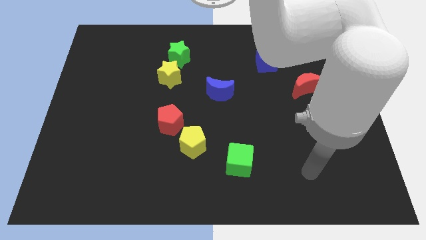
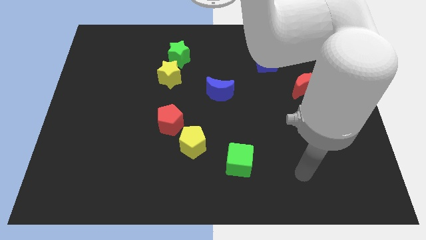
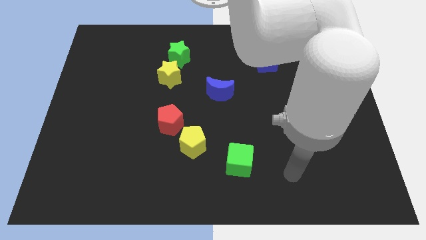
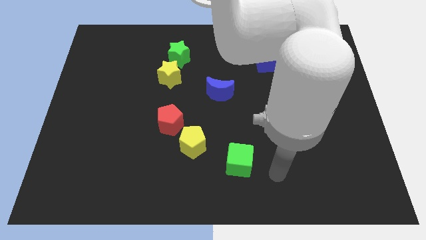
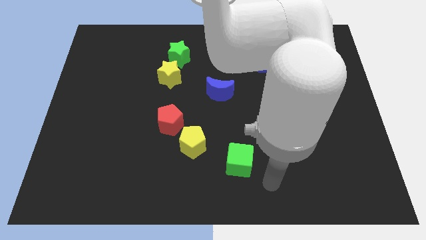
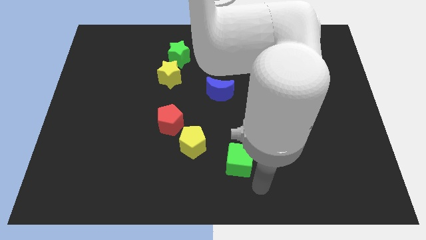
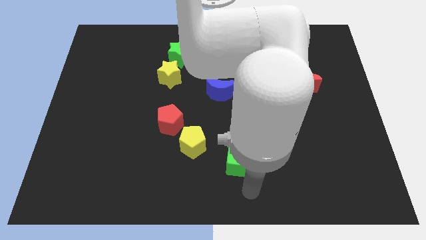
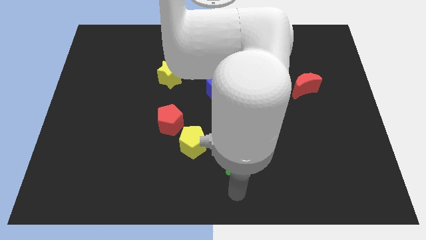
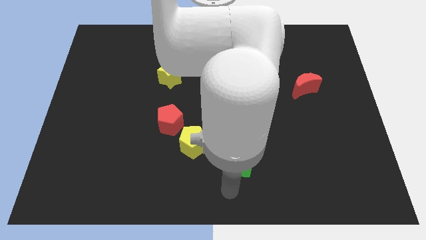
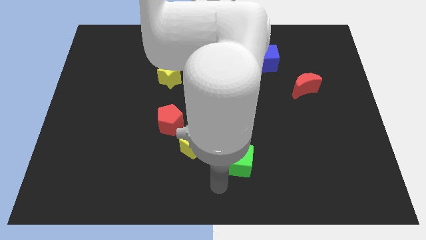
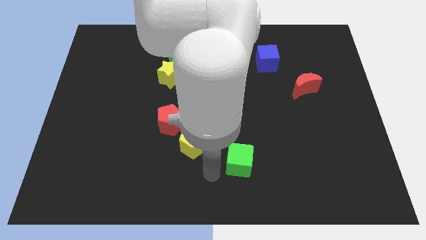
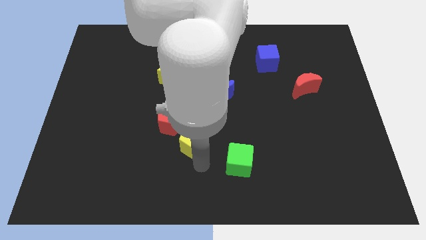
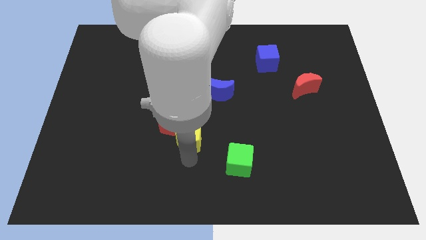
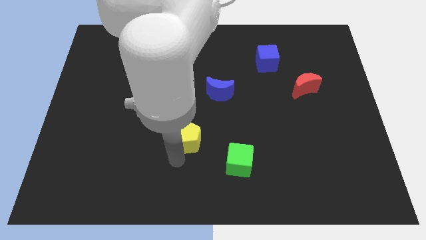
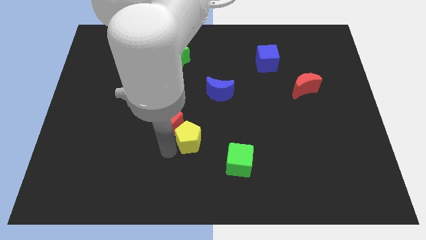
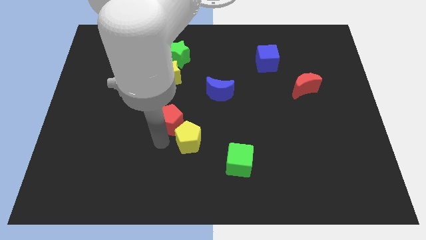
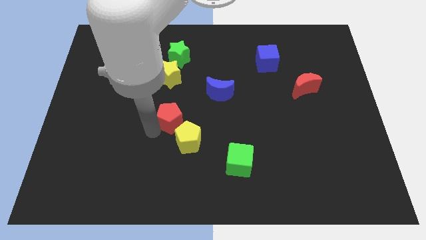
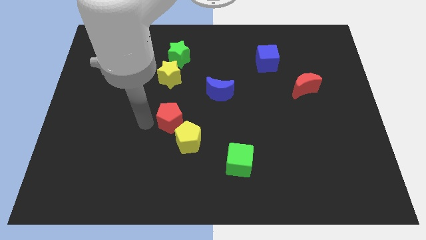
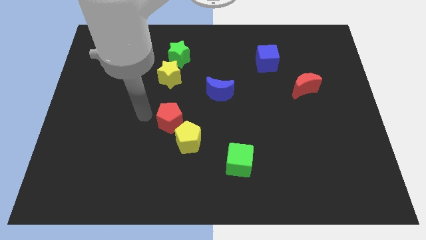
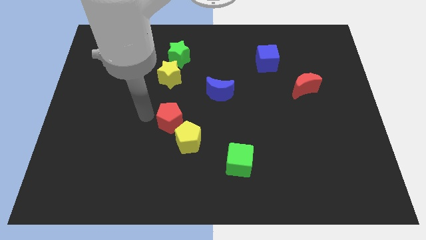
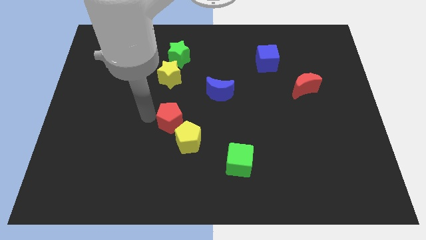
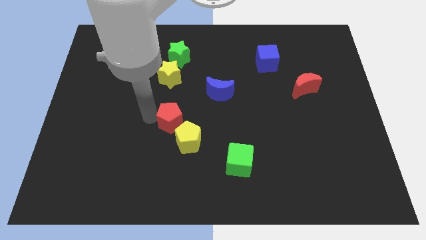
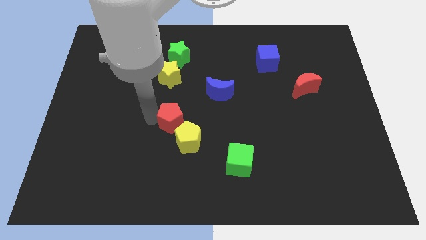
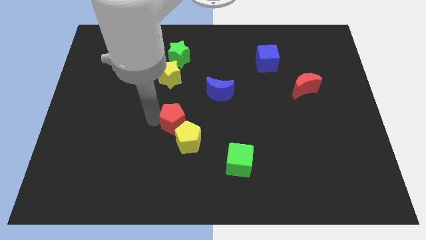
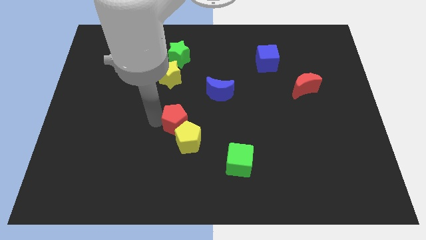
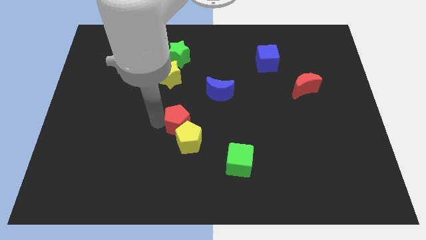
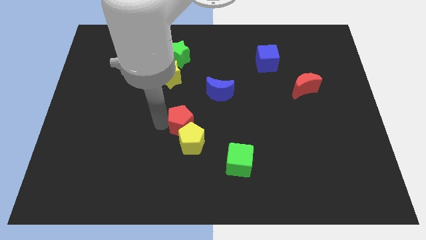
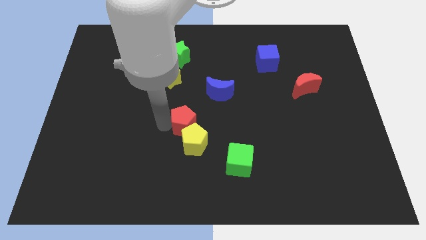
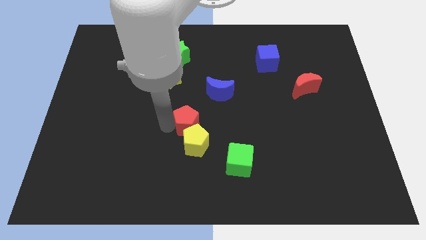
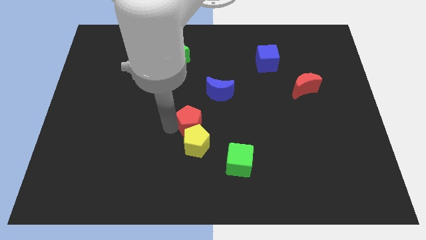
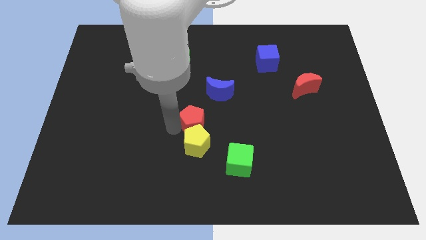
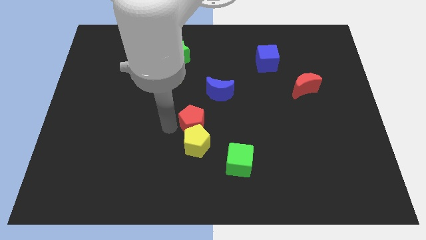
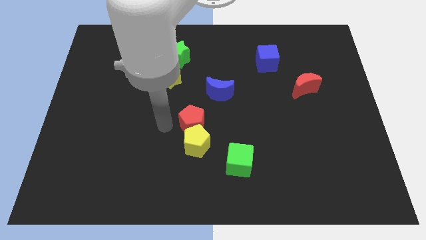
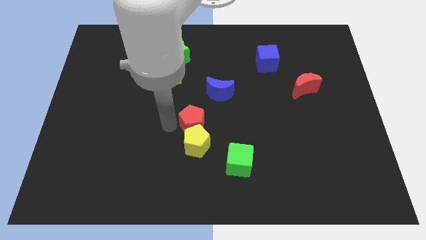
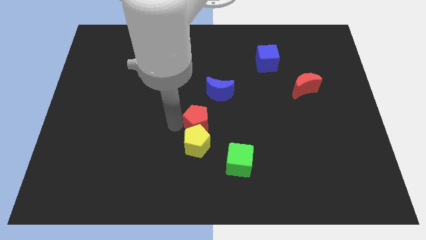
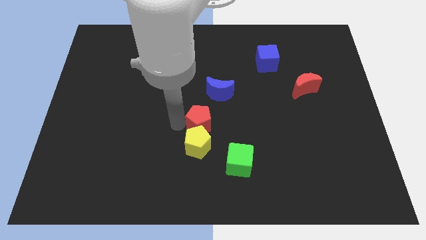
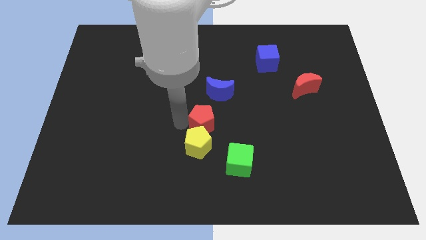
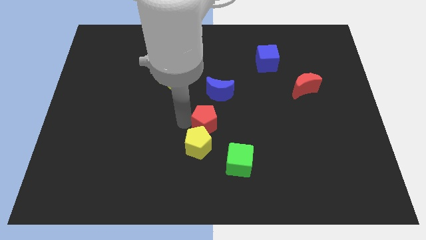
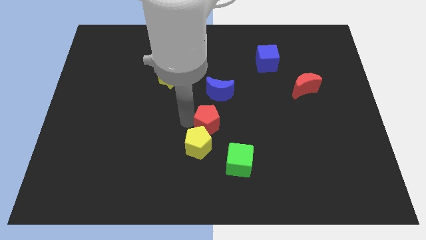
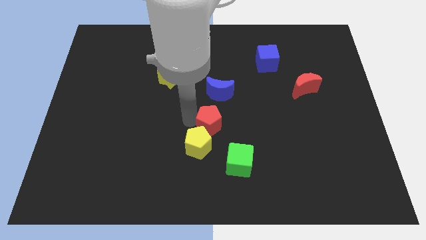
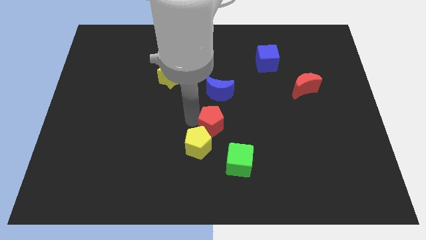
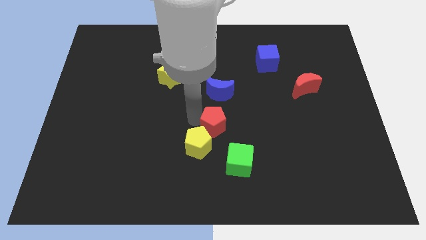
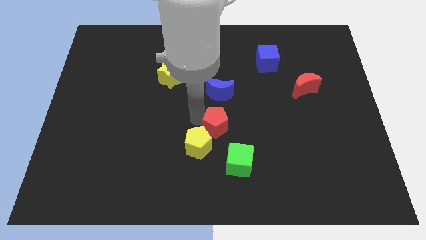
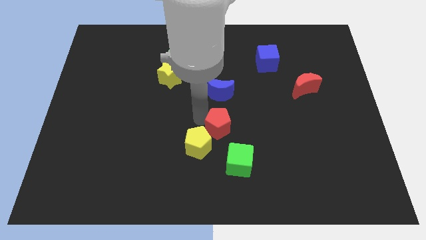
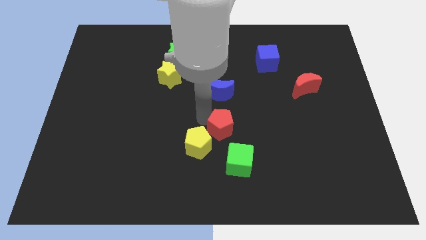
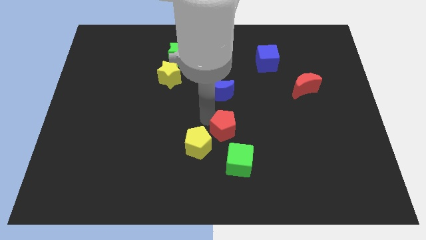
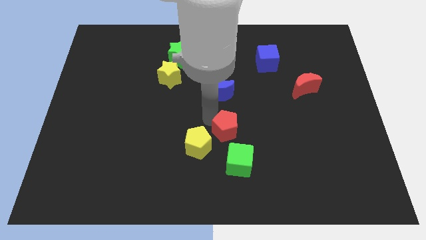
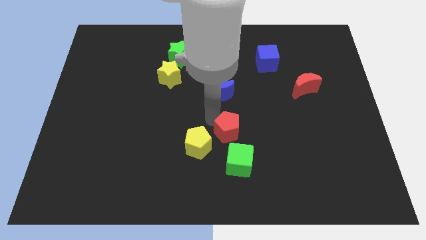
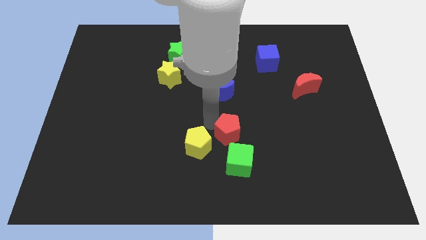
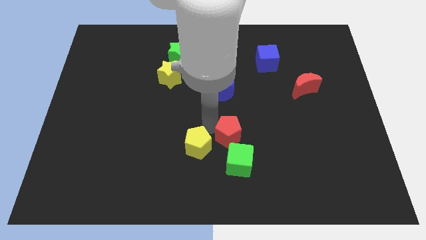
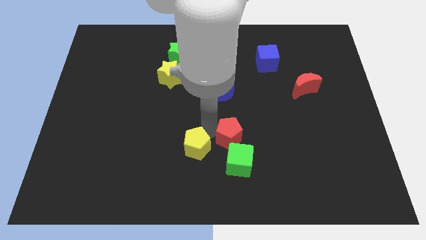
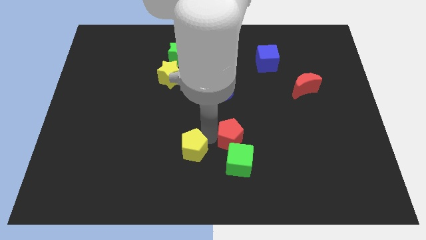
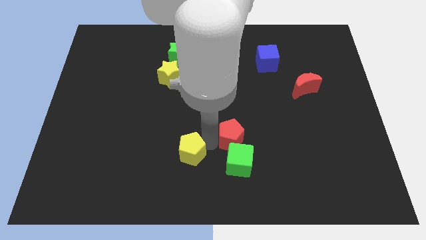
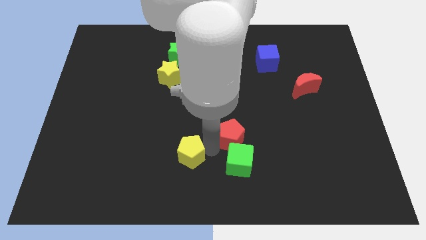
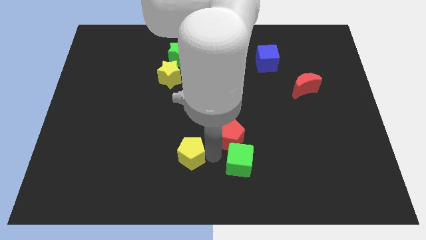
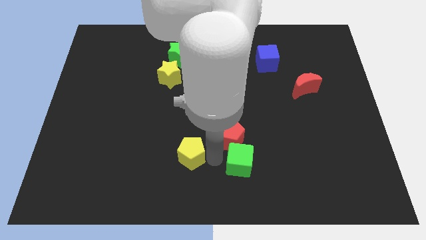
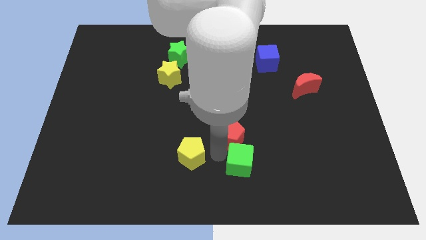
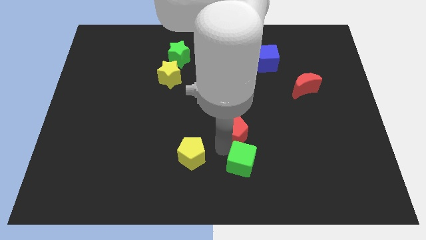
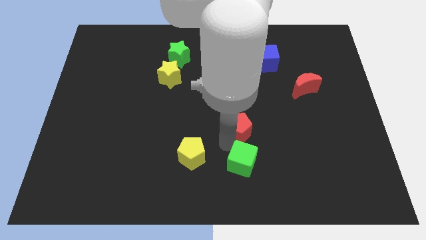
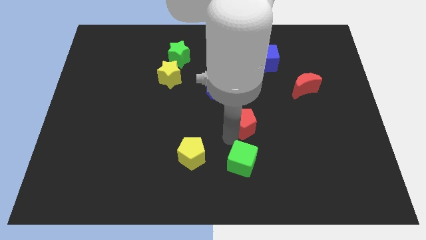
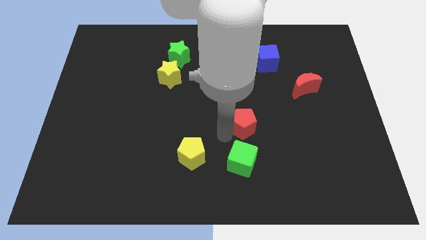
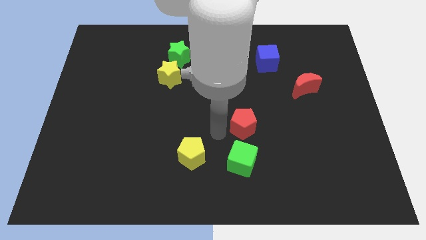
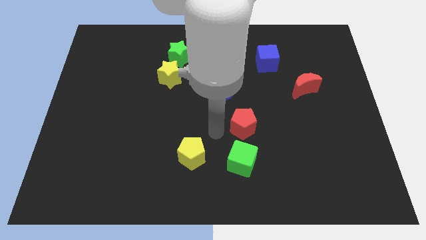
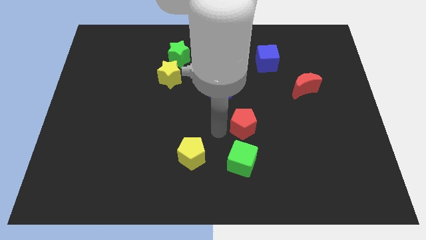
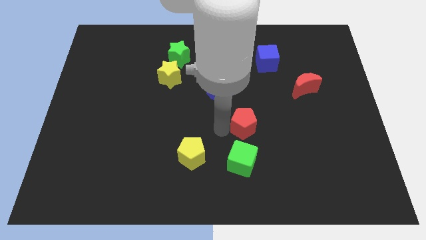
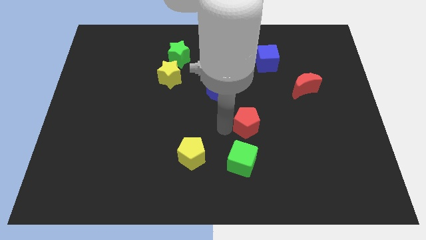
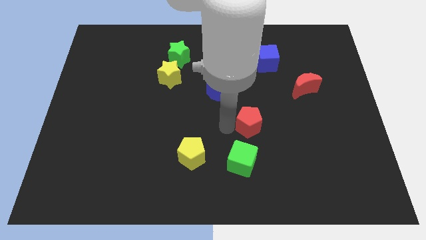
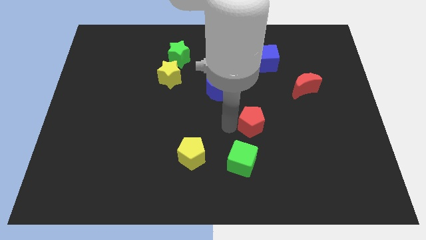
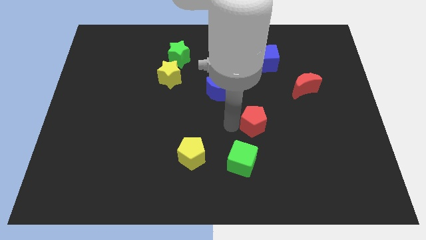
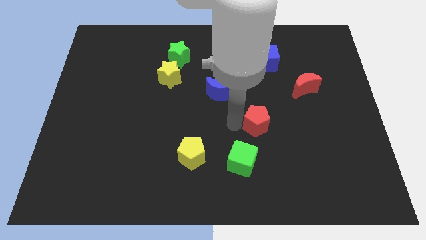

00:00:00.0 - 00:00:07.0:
push the red pentagon to the right

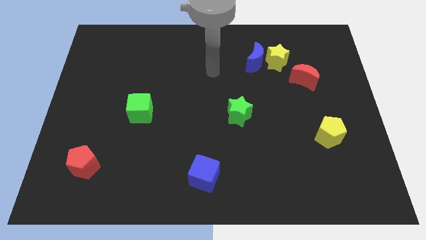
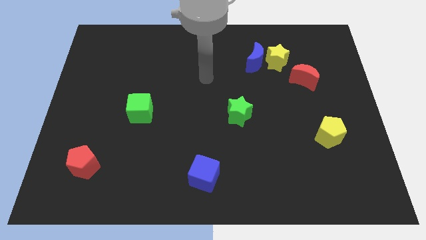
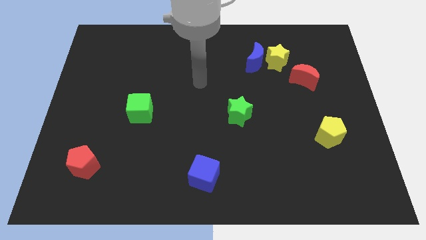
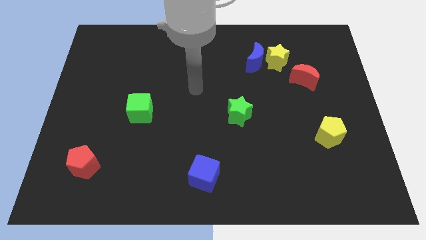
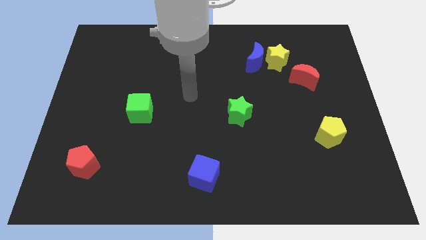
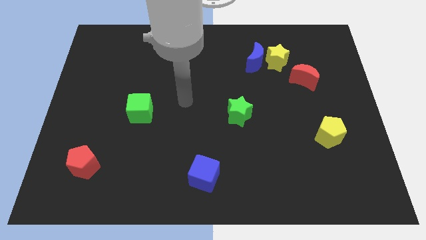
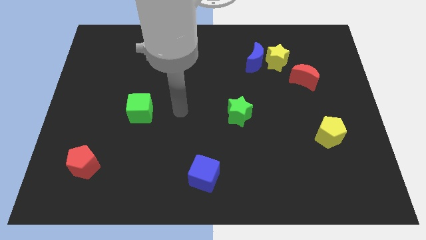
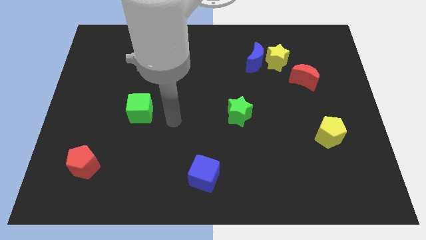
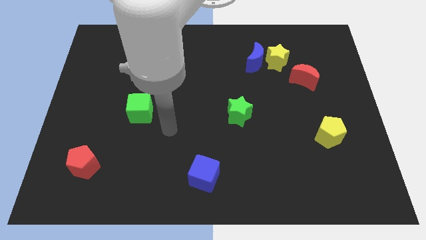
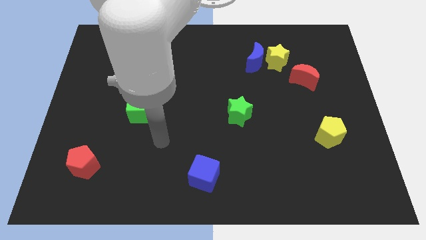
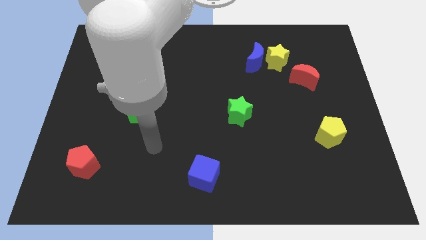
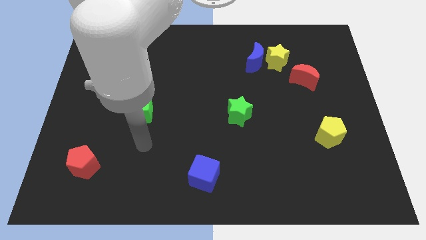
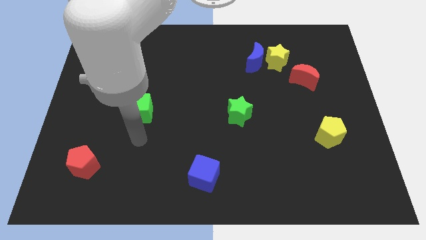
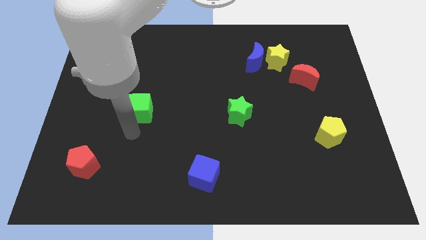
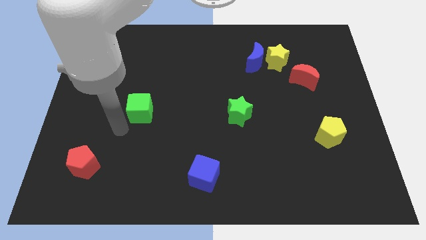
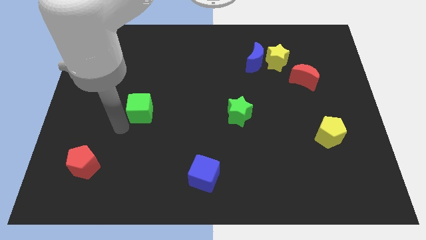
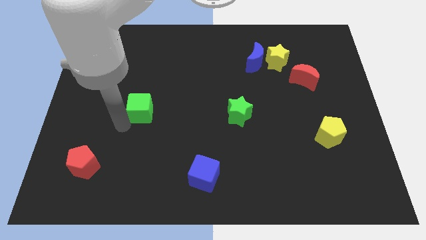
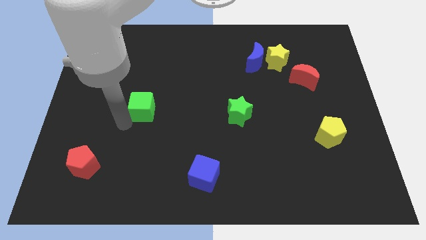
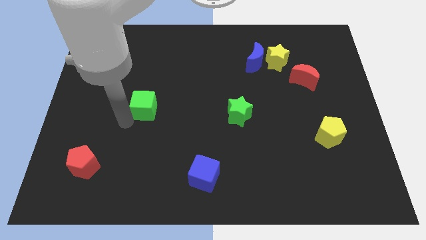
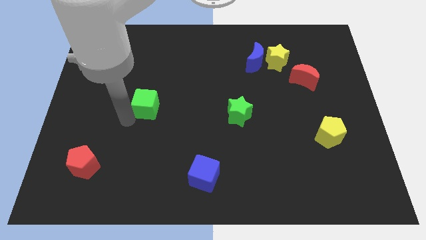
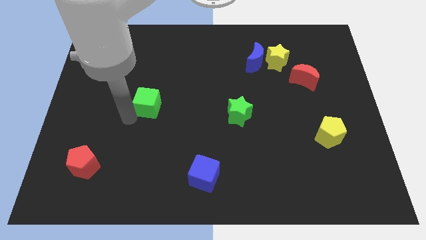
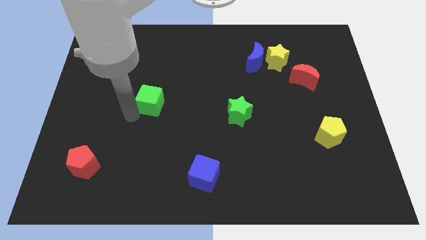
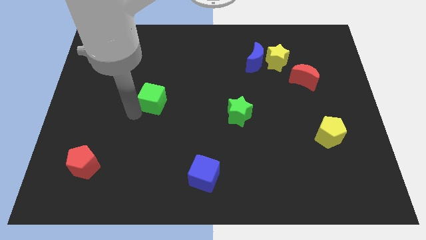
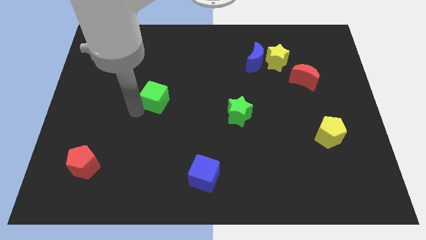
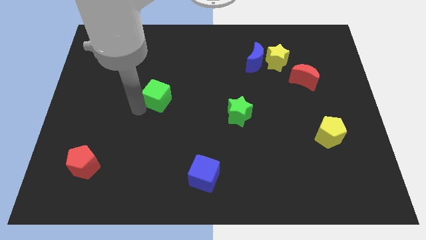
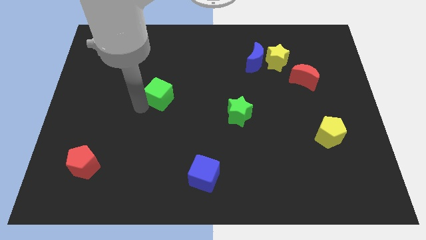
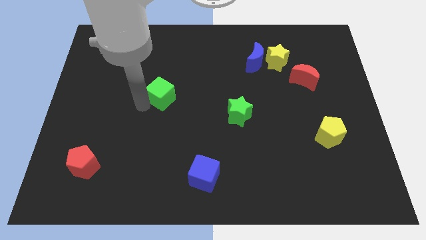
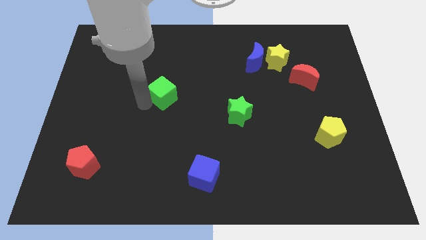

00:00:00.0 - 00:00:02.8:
move the green cube a bit up and right diagonally
